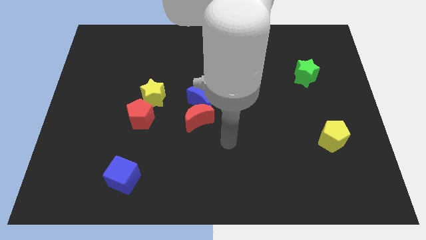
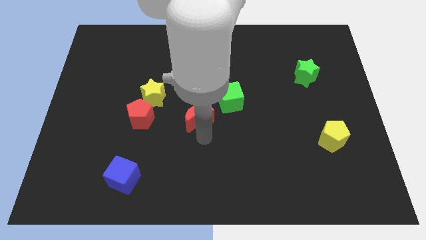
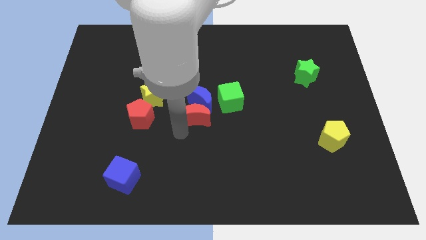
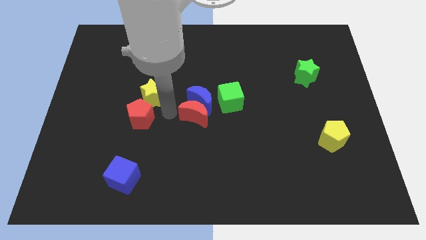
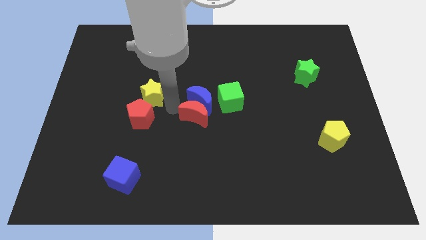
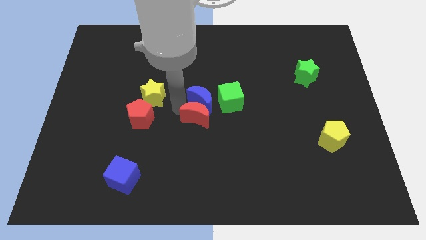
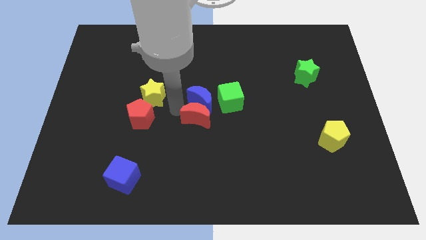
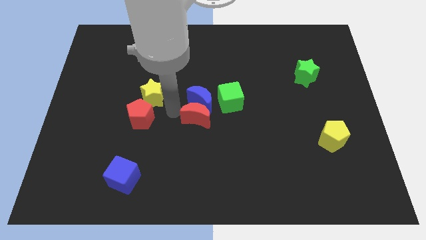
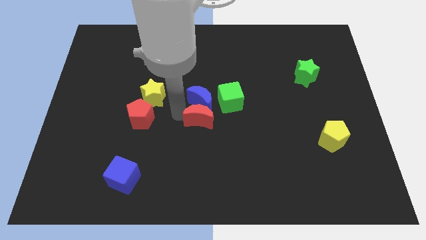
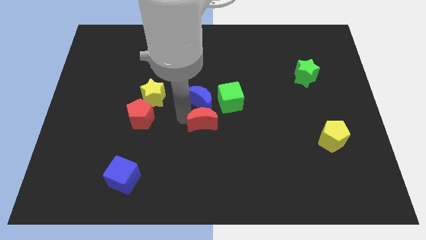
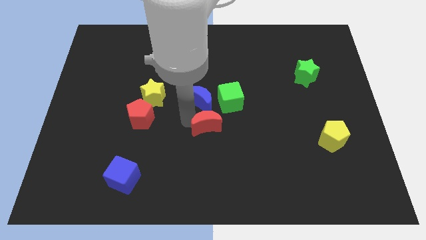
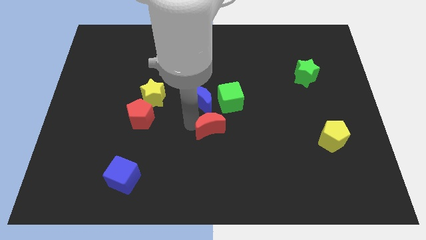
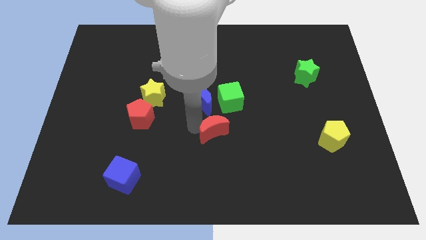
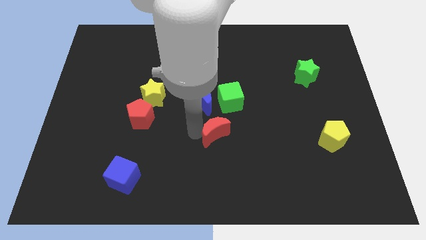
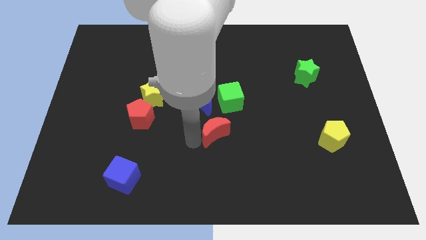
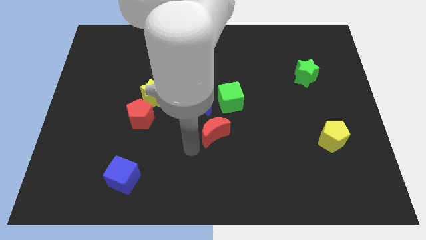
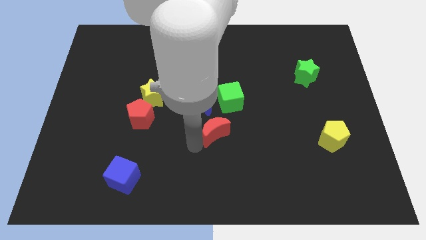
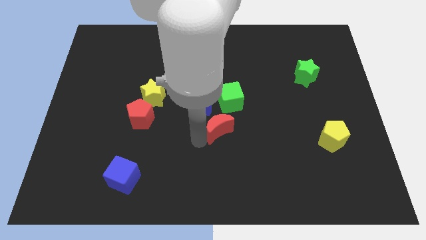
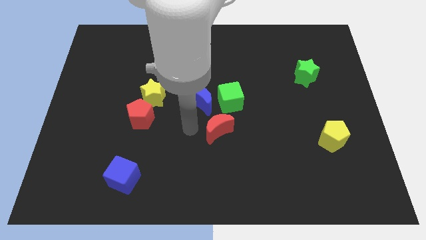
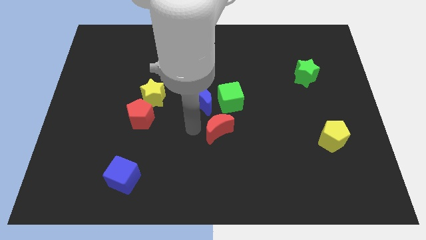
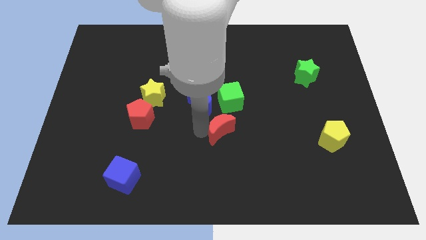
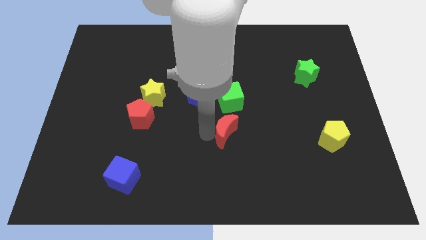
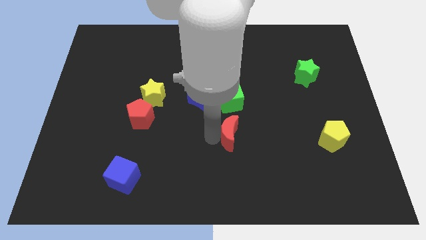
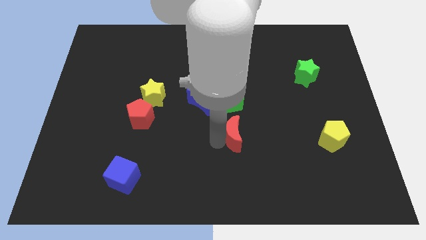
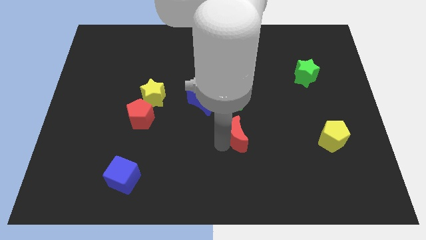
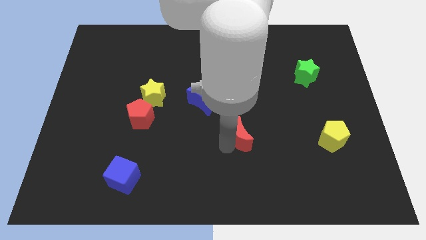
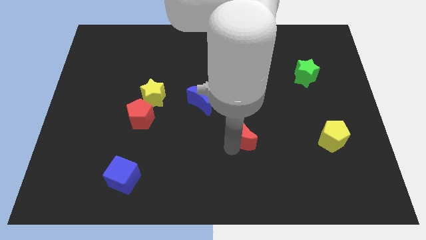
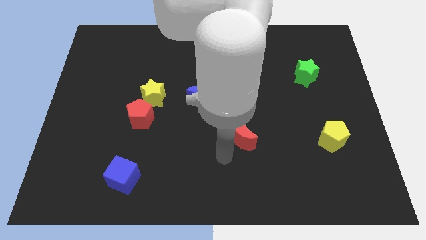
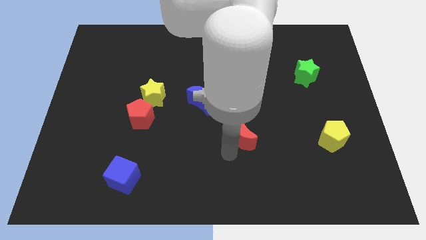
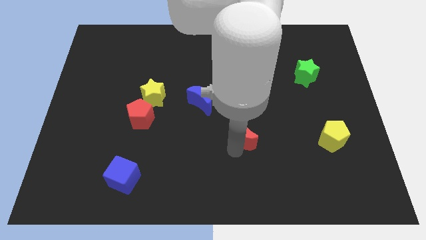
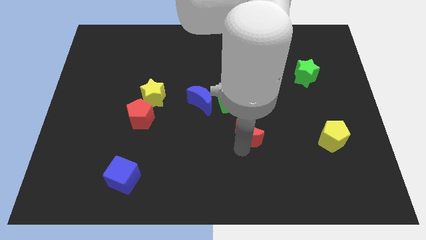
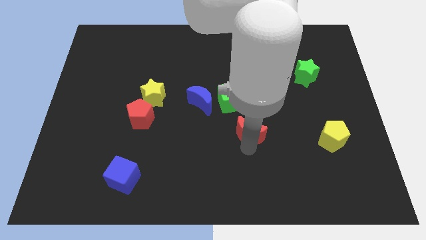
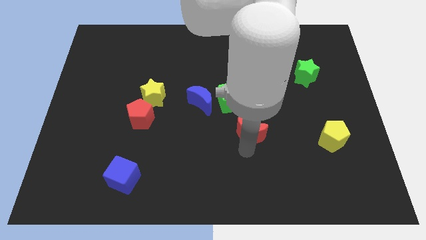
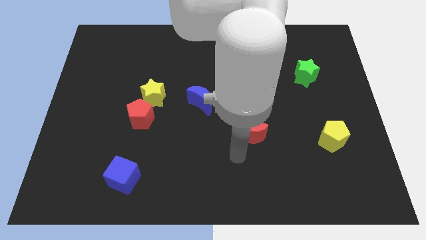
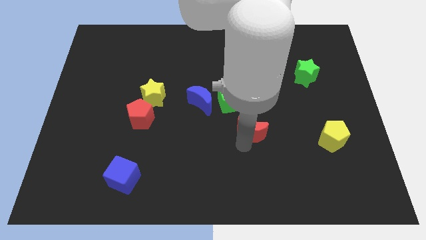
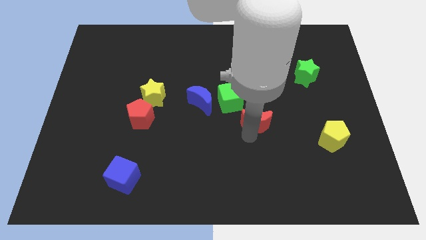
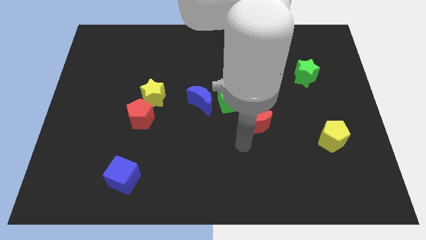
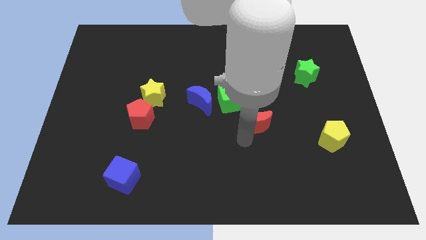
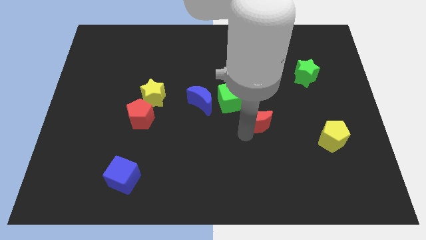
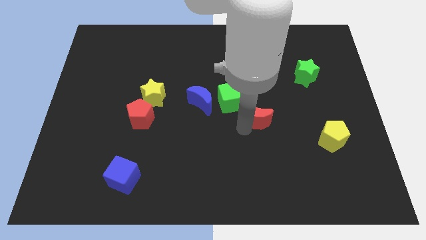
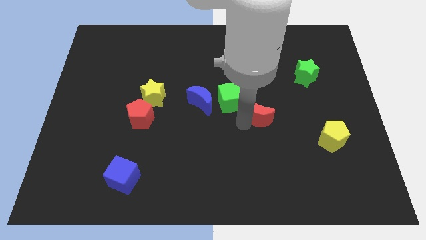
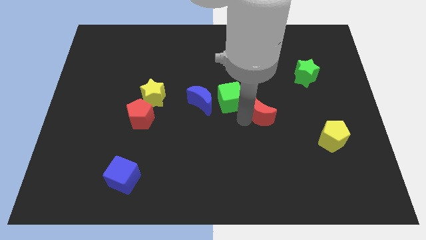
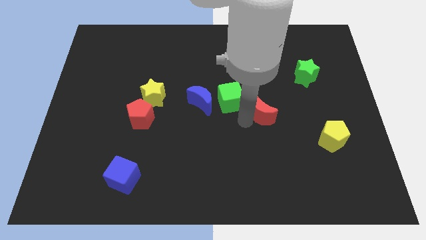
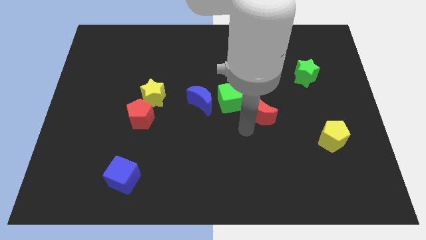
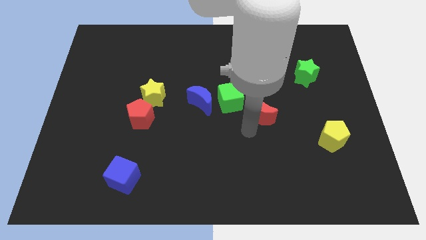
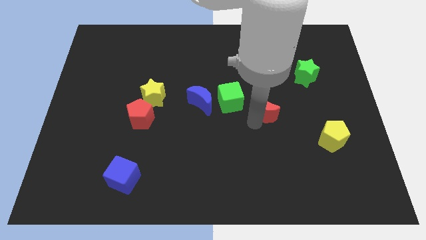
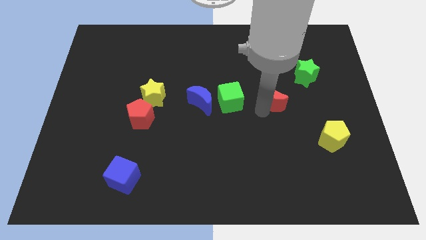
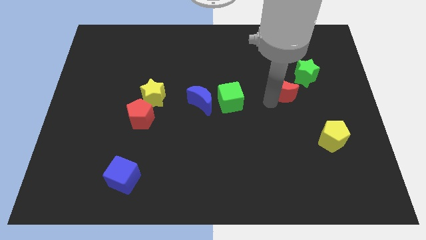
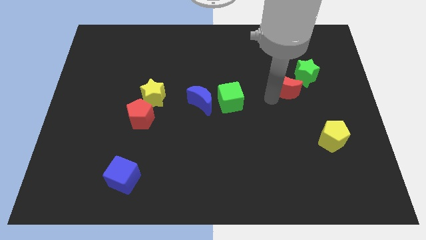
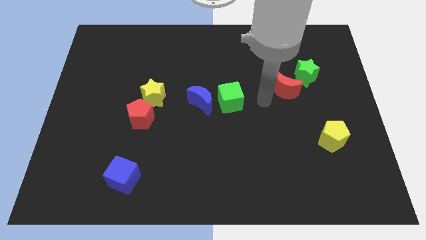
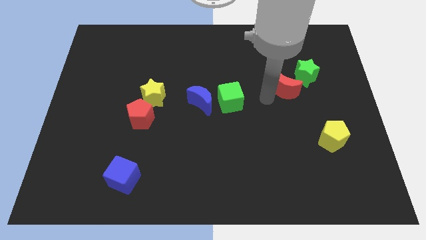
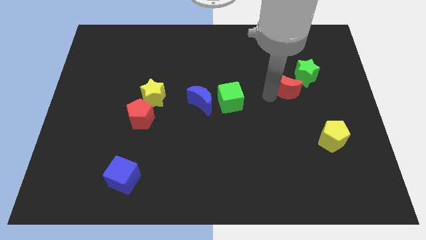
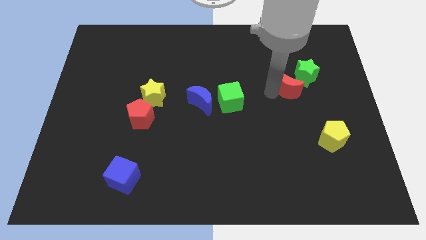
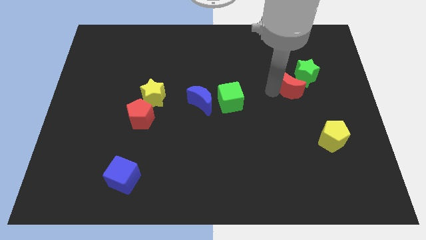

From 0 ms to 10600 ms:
slide the red moon to the green star

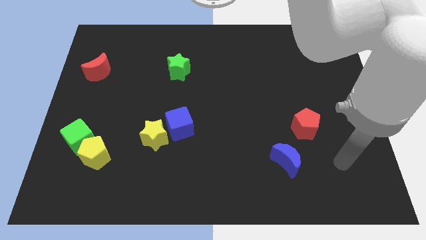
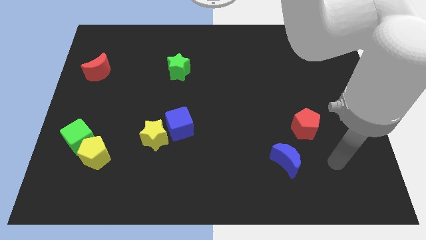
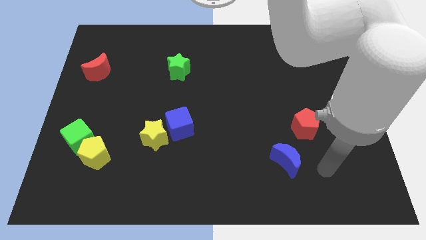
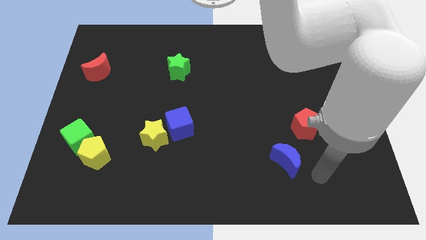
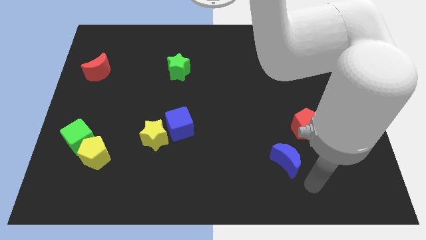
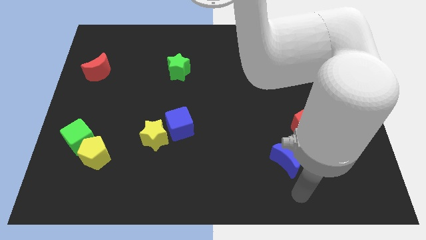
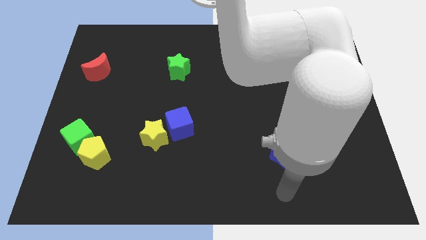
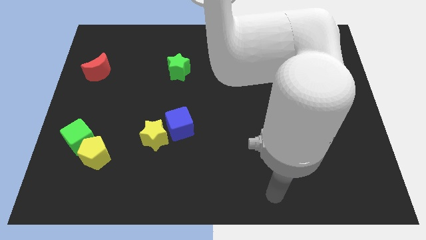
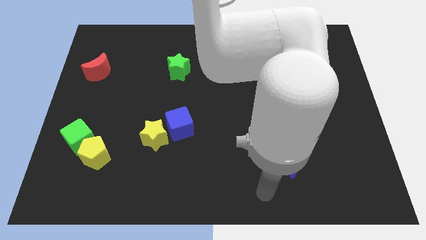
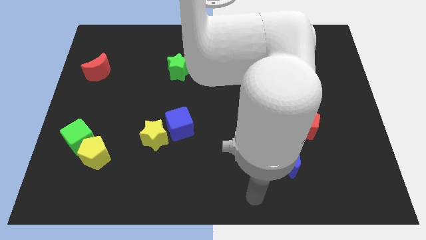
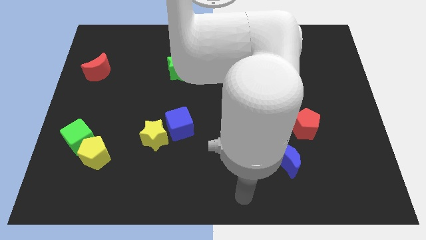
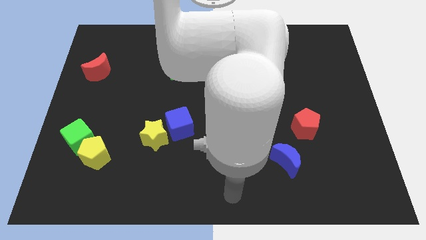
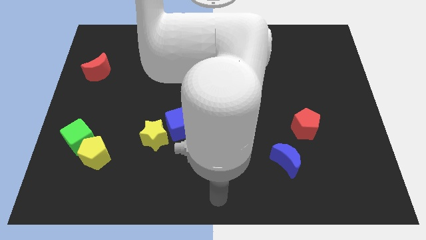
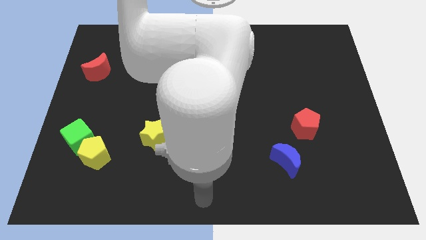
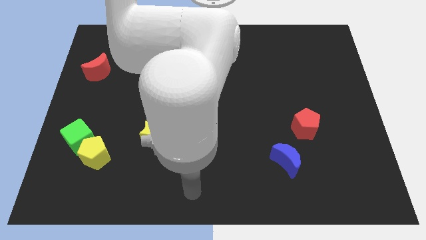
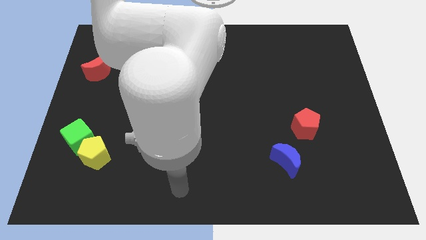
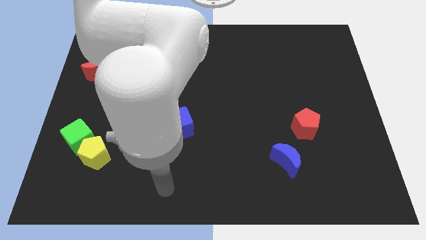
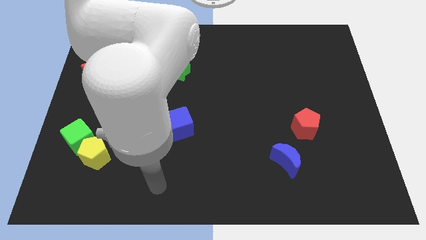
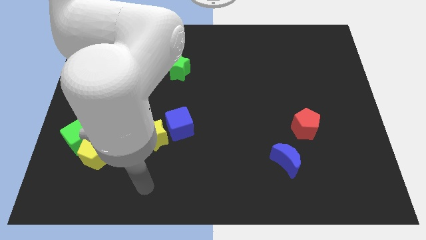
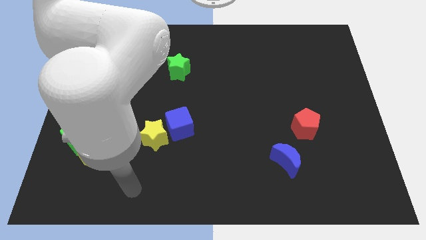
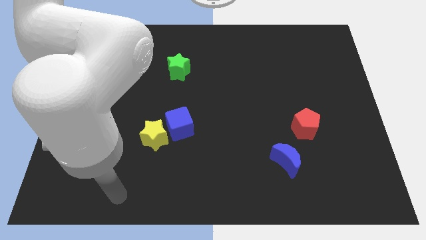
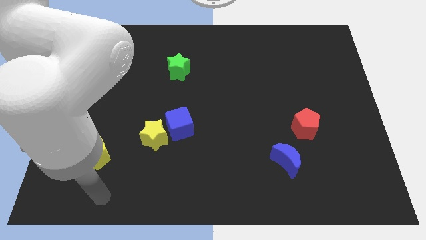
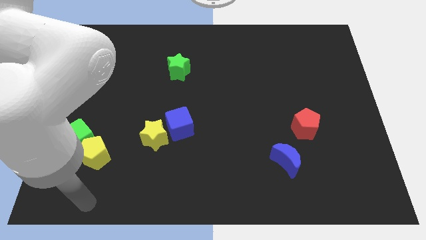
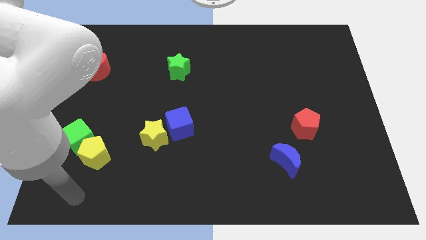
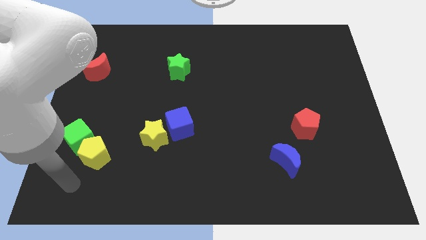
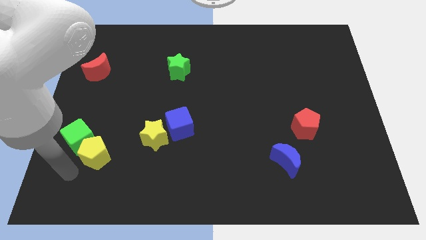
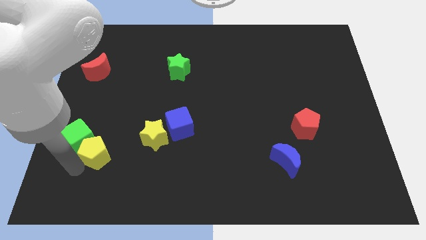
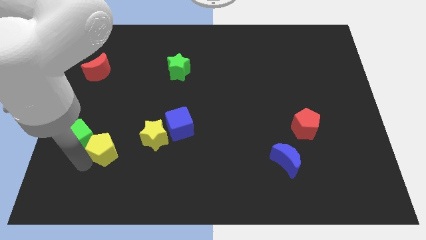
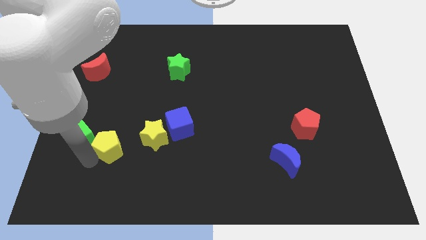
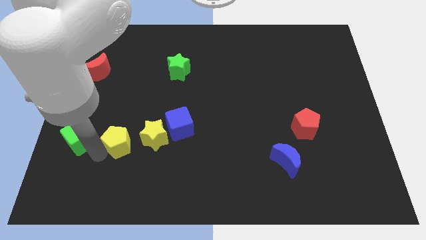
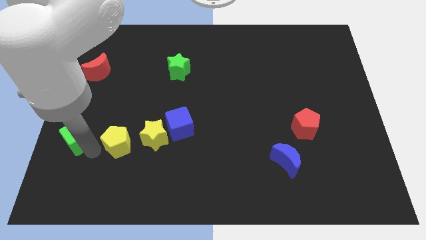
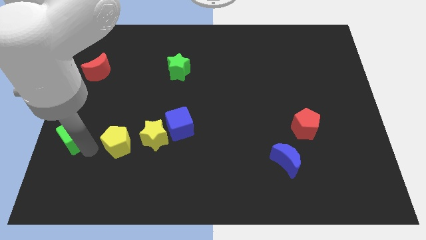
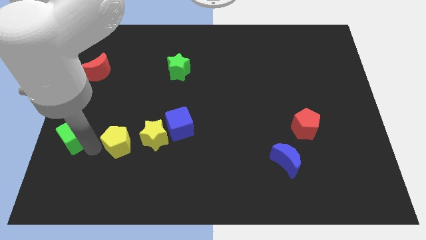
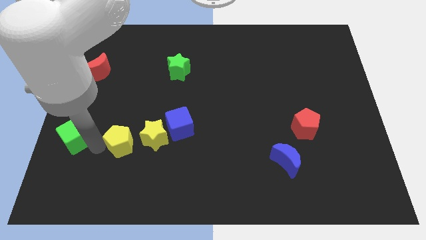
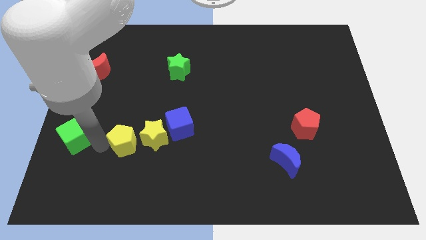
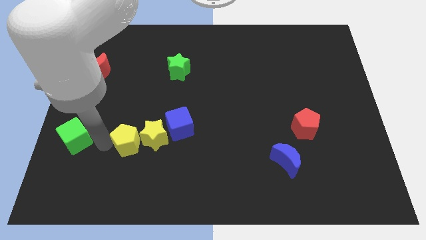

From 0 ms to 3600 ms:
push the yellow pentagon next to the yellow star
